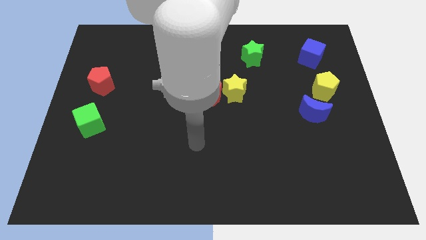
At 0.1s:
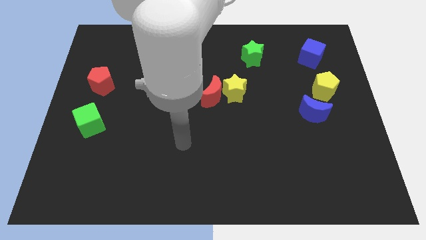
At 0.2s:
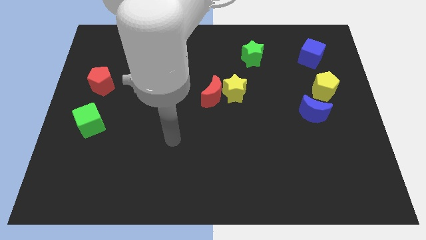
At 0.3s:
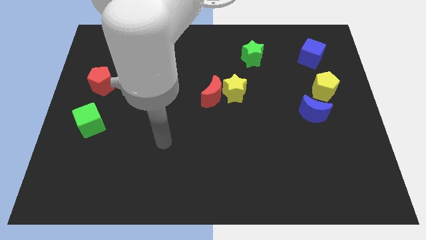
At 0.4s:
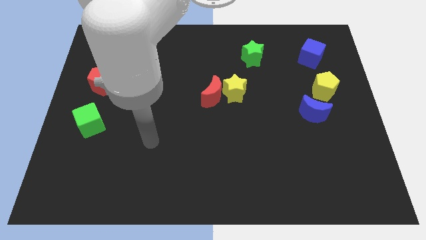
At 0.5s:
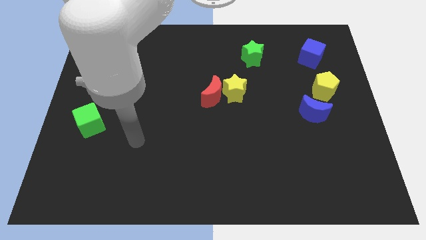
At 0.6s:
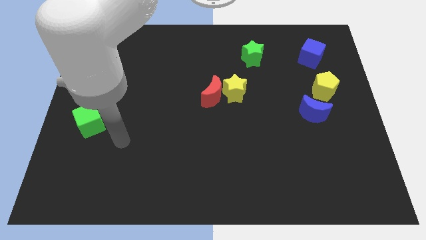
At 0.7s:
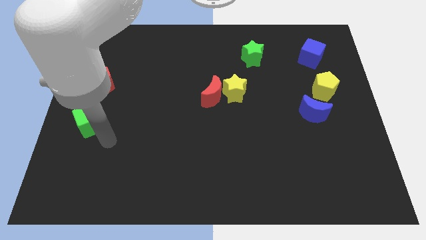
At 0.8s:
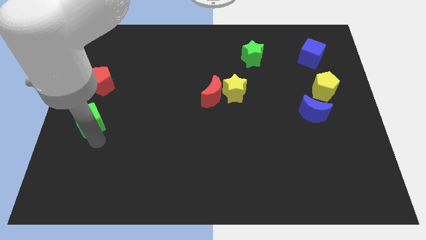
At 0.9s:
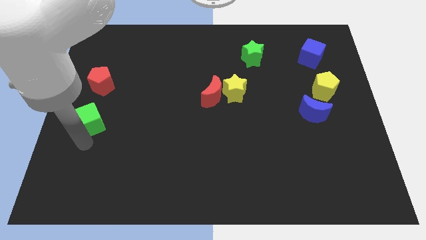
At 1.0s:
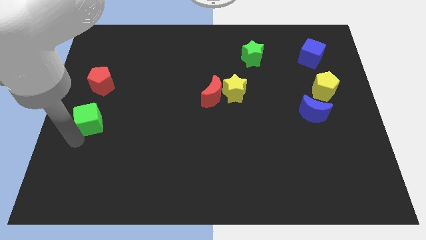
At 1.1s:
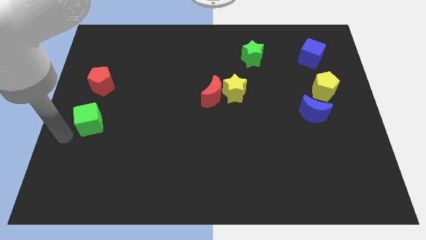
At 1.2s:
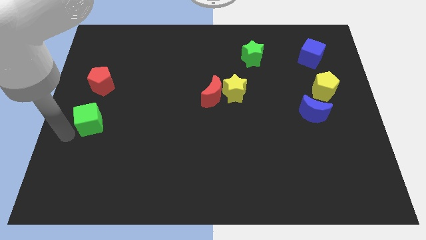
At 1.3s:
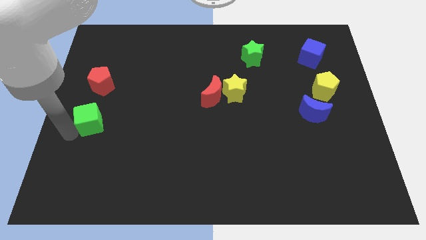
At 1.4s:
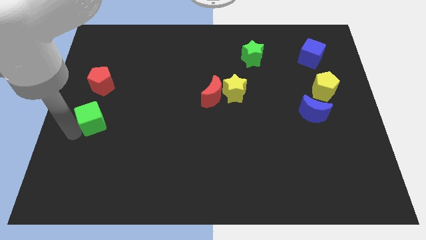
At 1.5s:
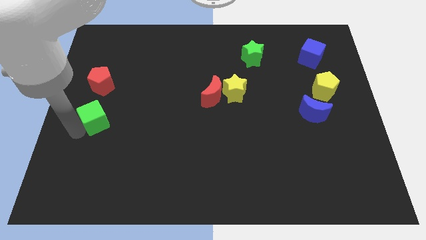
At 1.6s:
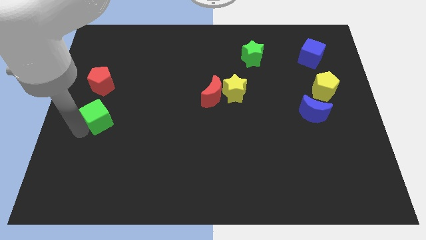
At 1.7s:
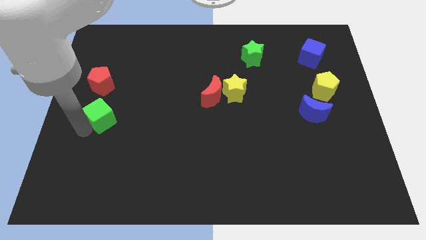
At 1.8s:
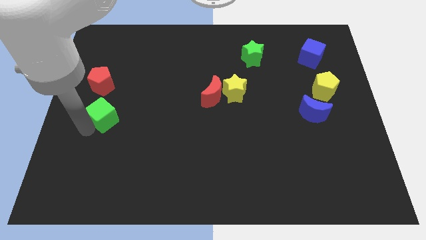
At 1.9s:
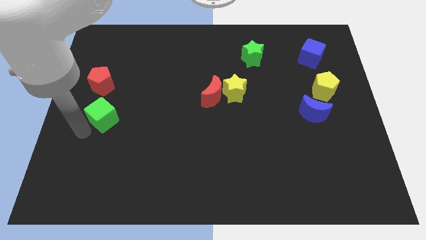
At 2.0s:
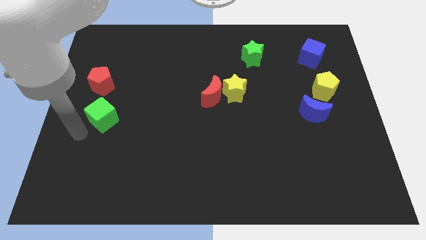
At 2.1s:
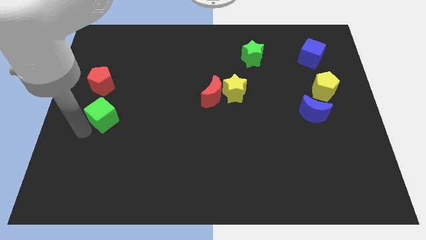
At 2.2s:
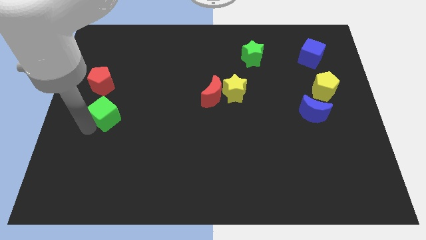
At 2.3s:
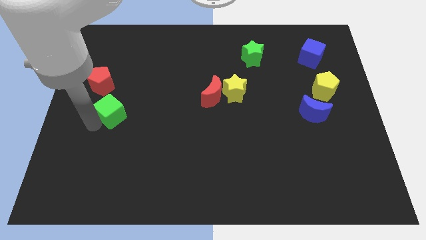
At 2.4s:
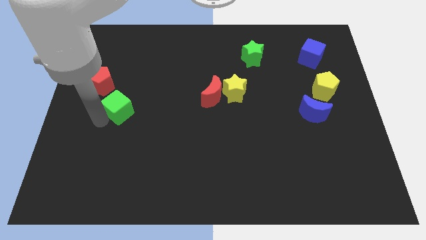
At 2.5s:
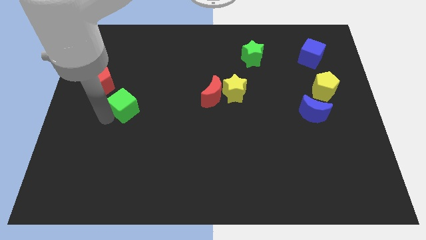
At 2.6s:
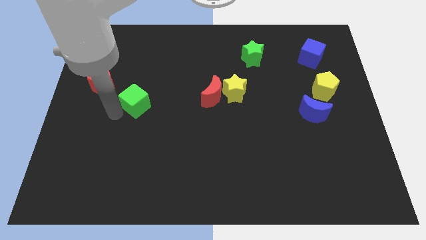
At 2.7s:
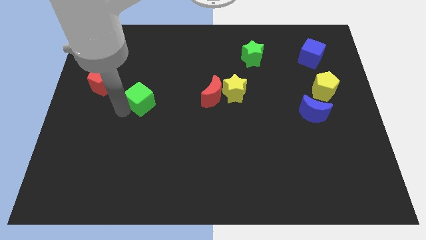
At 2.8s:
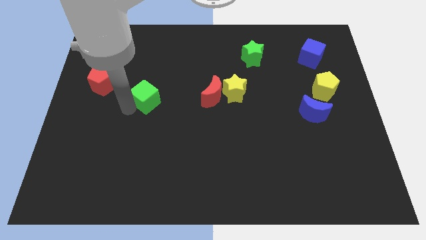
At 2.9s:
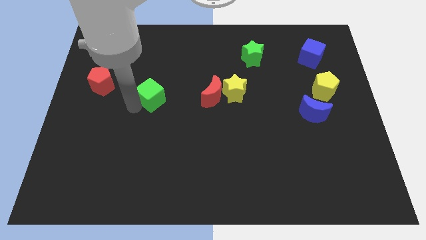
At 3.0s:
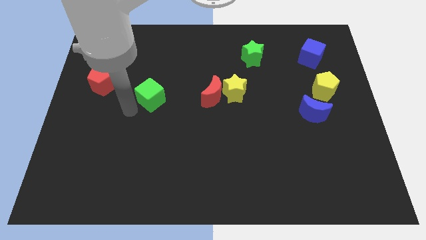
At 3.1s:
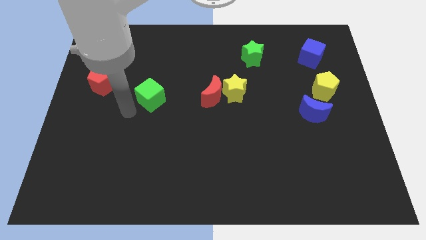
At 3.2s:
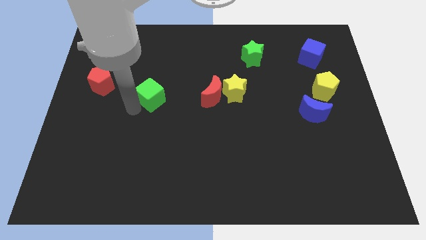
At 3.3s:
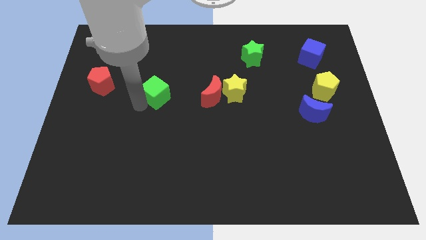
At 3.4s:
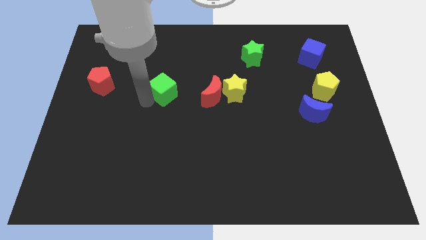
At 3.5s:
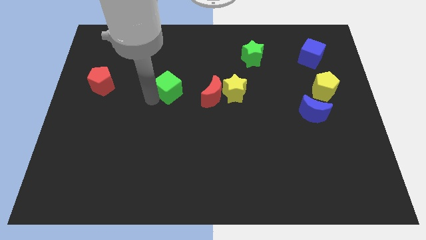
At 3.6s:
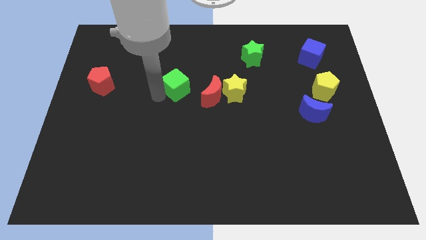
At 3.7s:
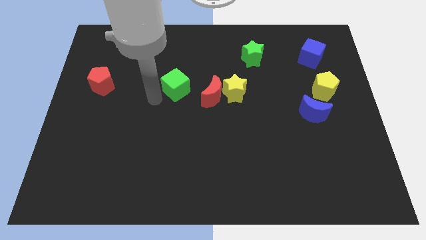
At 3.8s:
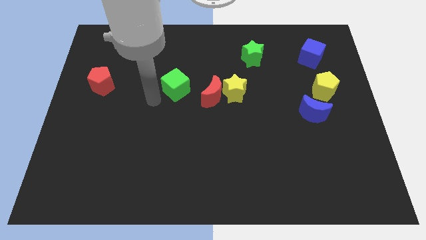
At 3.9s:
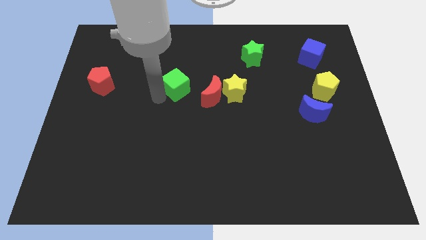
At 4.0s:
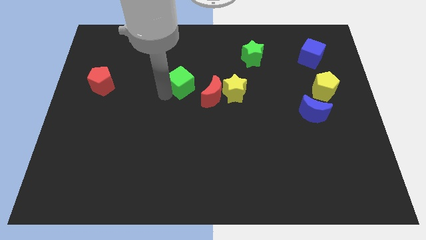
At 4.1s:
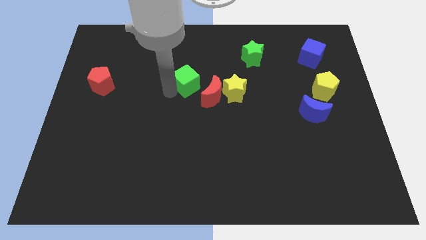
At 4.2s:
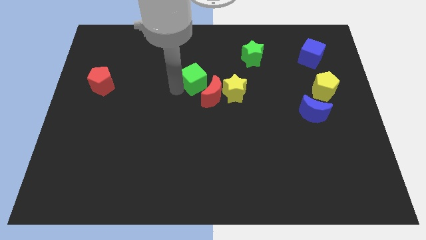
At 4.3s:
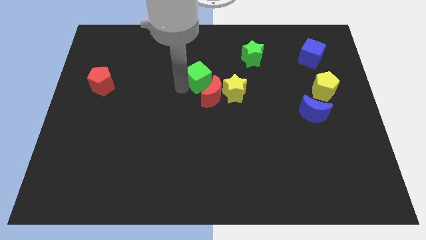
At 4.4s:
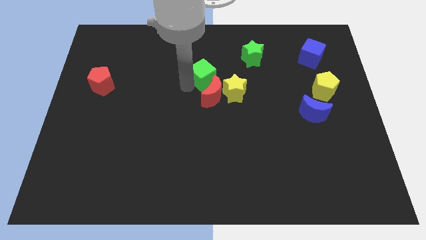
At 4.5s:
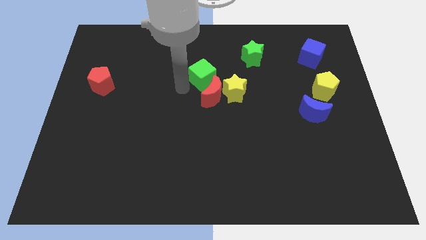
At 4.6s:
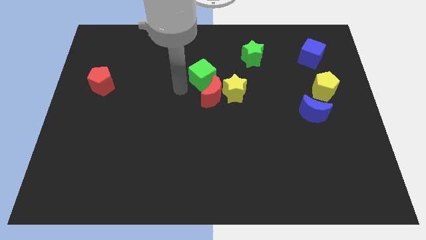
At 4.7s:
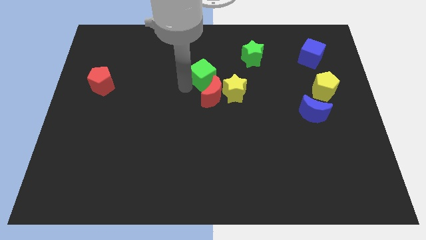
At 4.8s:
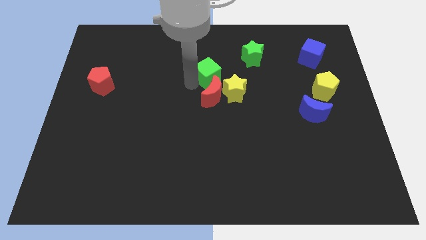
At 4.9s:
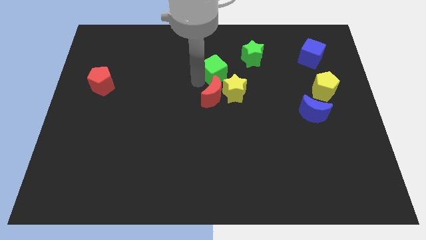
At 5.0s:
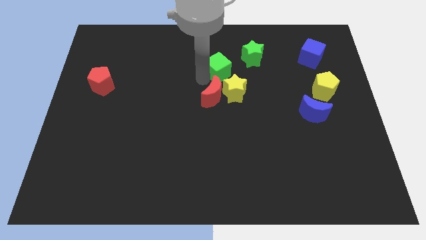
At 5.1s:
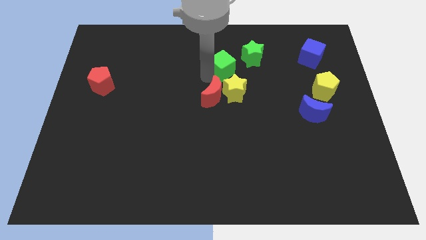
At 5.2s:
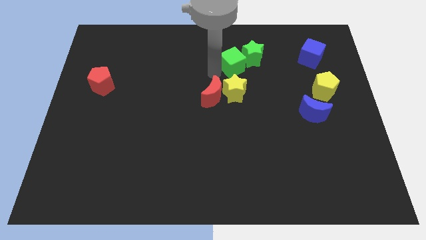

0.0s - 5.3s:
put the green cube next to the green star

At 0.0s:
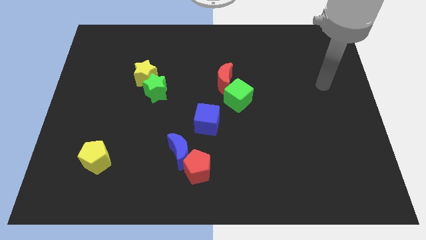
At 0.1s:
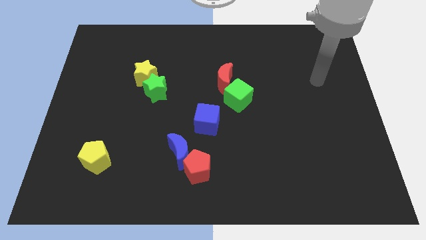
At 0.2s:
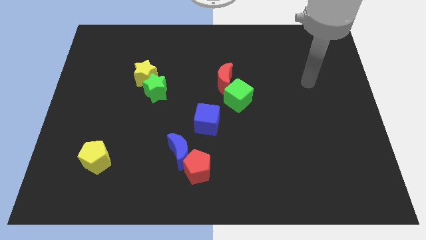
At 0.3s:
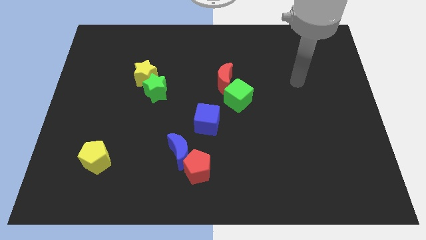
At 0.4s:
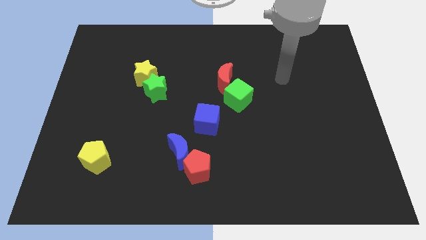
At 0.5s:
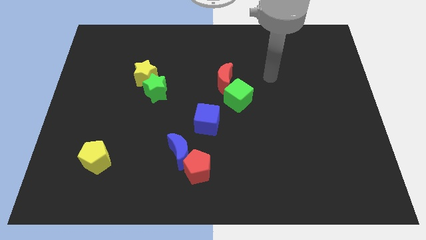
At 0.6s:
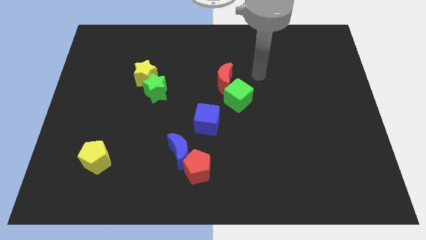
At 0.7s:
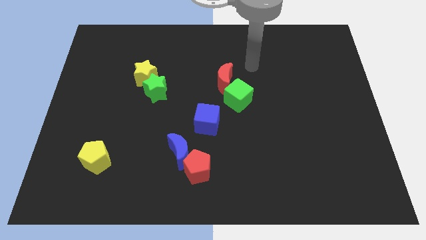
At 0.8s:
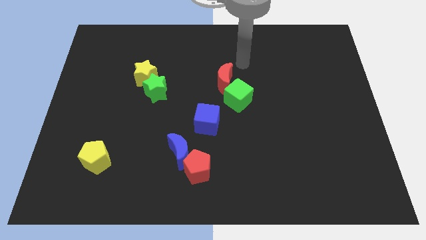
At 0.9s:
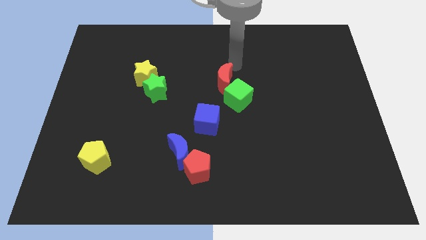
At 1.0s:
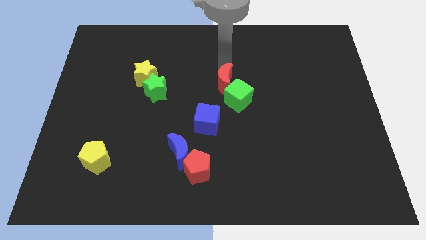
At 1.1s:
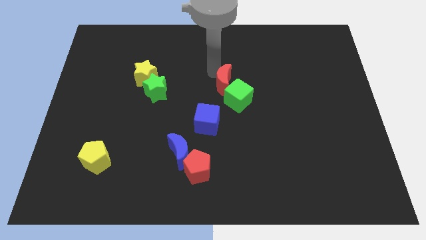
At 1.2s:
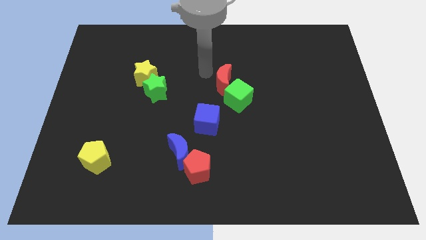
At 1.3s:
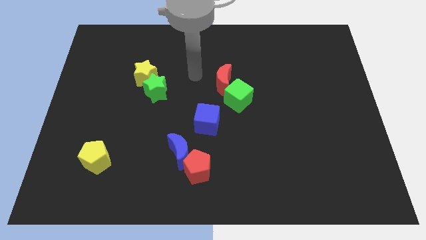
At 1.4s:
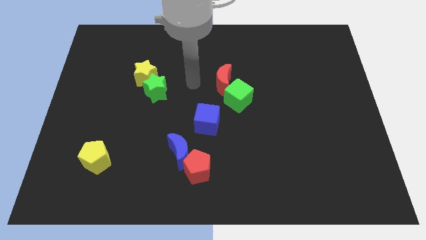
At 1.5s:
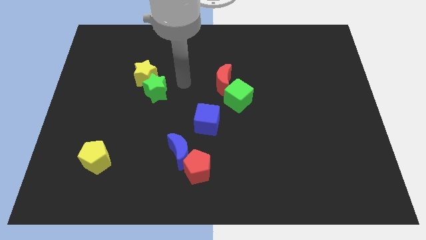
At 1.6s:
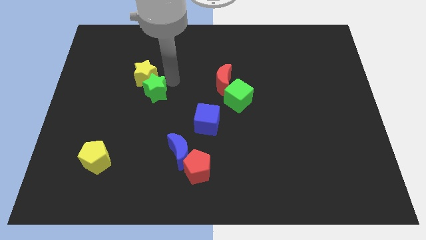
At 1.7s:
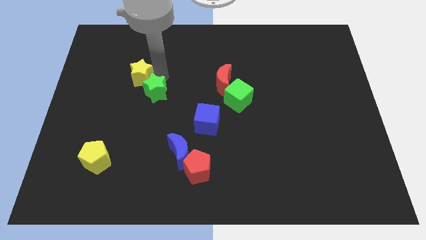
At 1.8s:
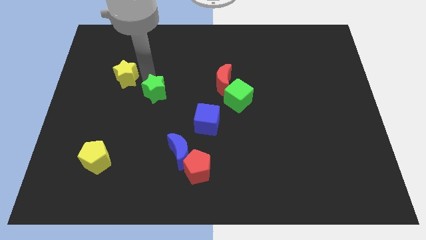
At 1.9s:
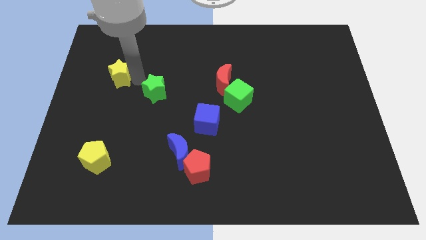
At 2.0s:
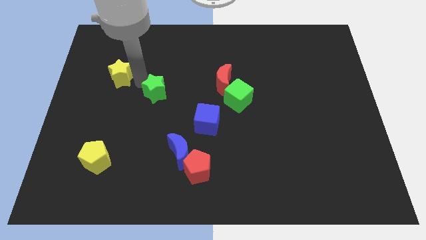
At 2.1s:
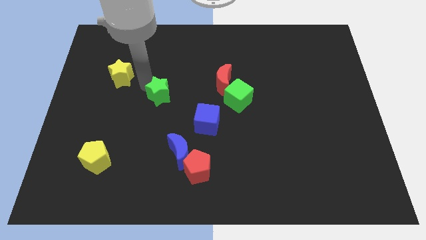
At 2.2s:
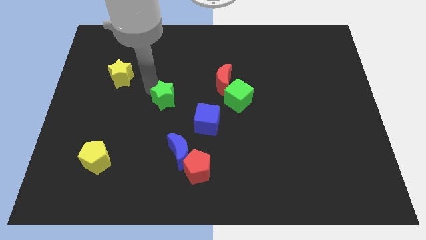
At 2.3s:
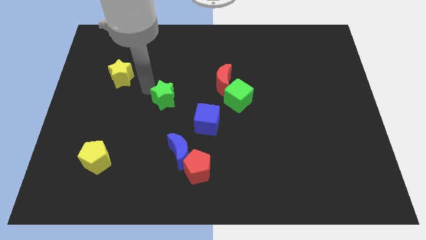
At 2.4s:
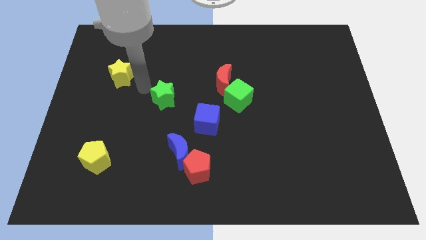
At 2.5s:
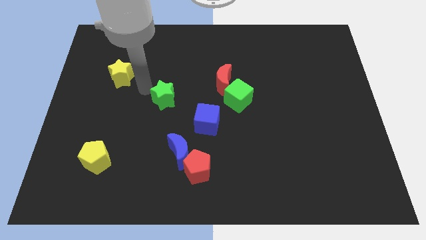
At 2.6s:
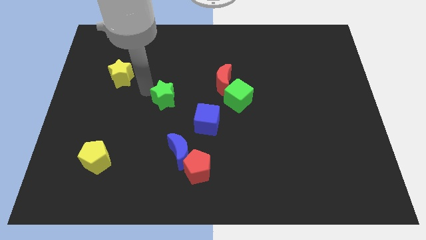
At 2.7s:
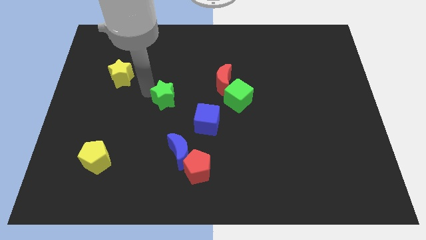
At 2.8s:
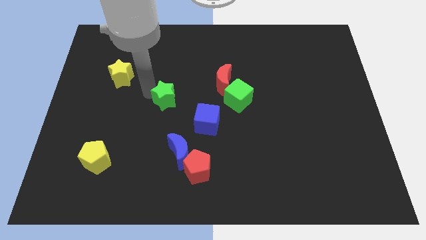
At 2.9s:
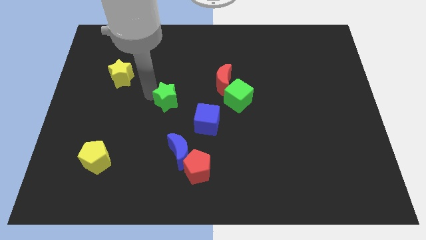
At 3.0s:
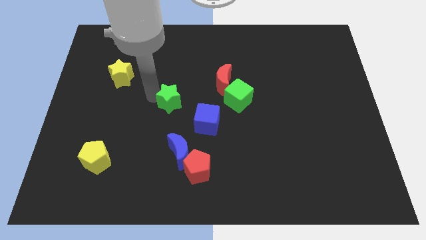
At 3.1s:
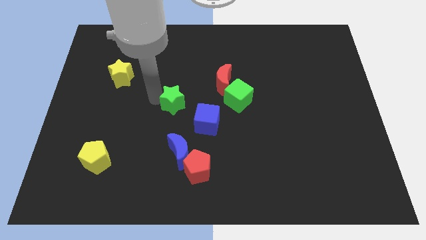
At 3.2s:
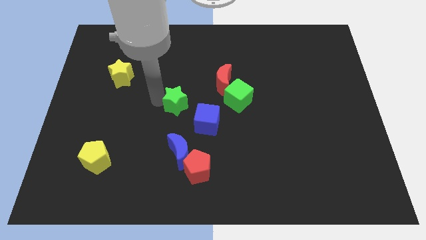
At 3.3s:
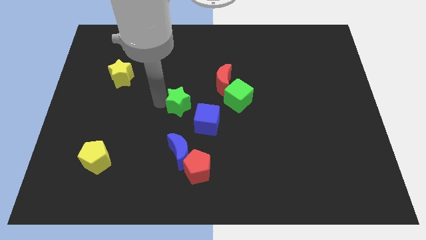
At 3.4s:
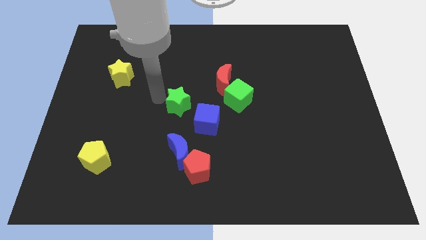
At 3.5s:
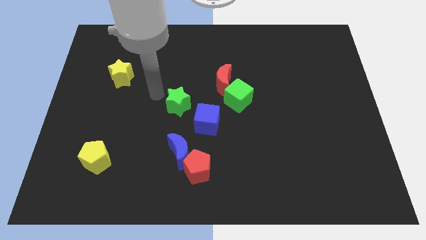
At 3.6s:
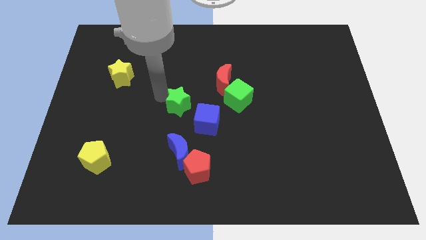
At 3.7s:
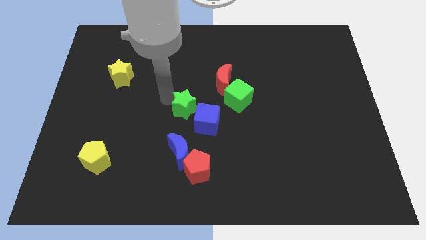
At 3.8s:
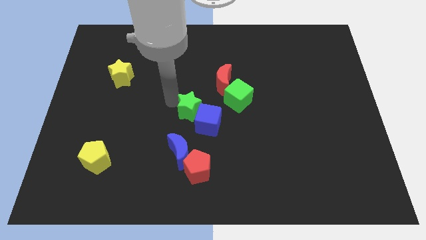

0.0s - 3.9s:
move the green star towards the blue cube
